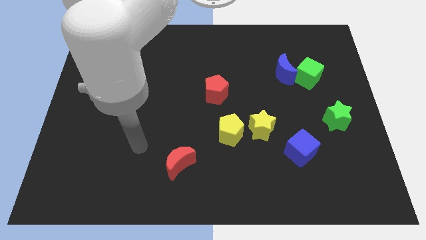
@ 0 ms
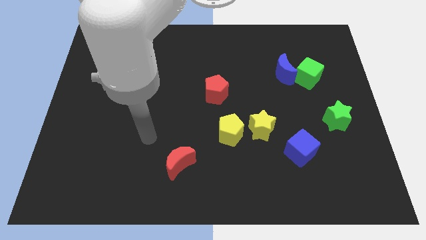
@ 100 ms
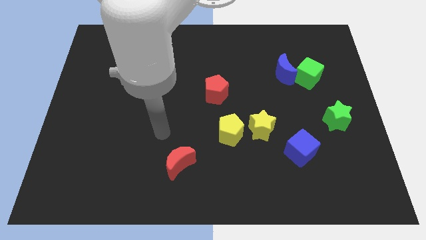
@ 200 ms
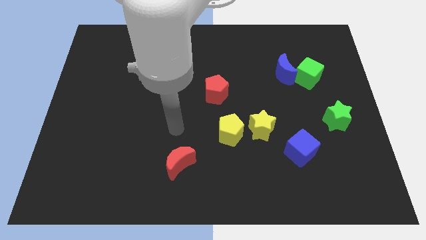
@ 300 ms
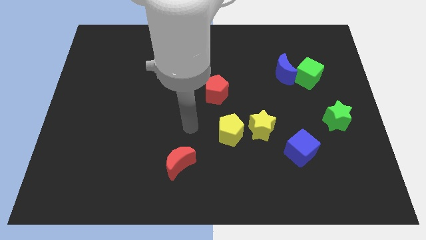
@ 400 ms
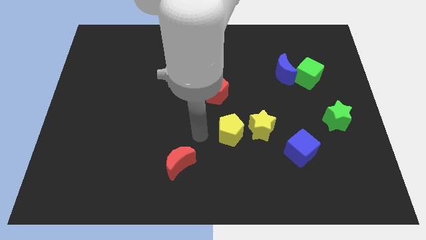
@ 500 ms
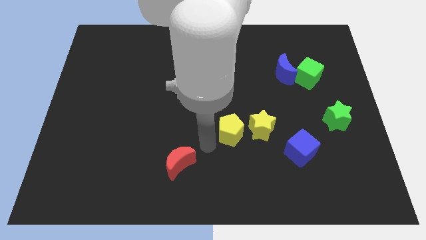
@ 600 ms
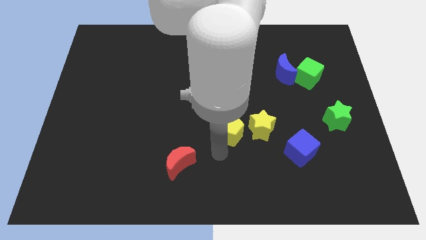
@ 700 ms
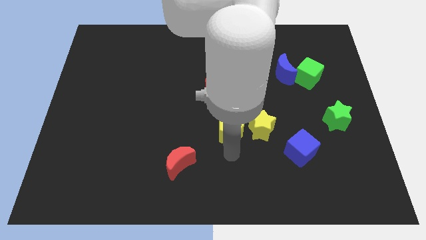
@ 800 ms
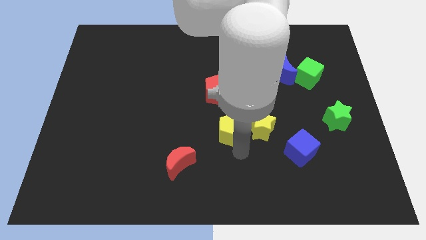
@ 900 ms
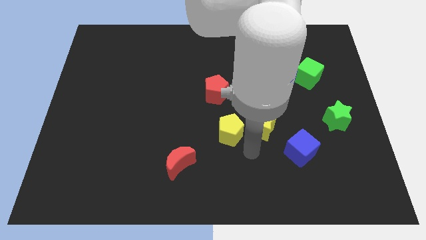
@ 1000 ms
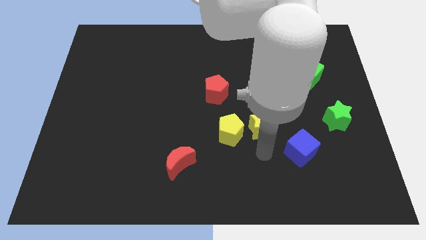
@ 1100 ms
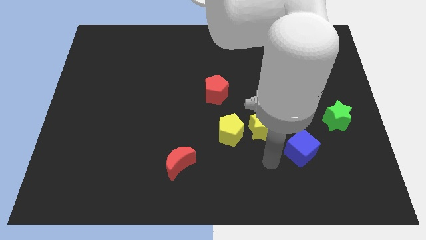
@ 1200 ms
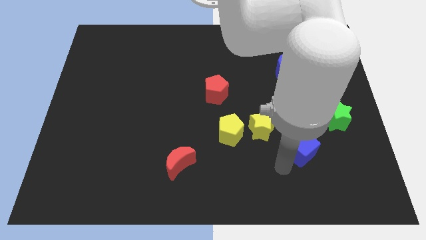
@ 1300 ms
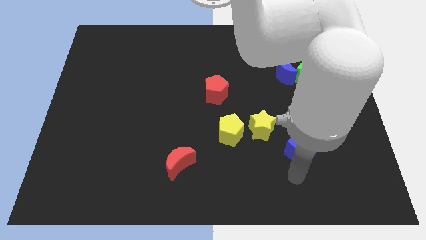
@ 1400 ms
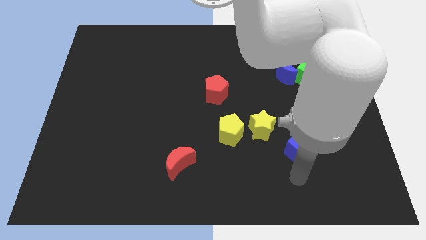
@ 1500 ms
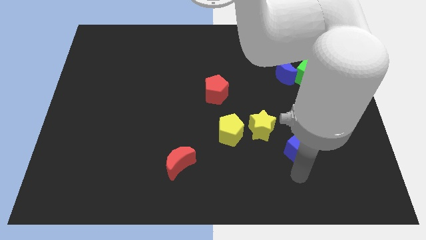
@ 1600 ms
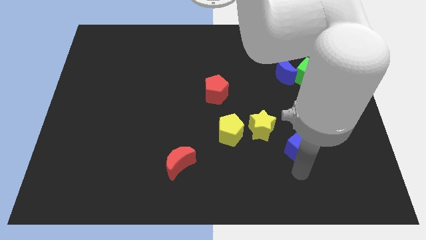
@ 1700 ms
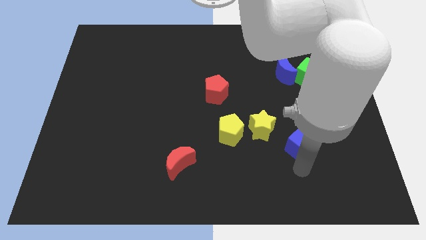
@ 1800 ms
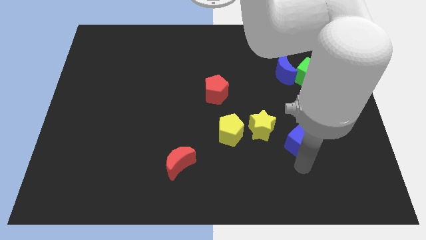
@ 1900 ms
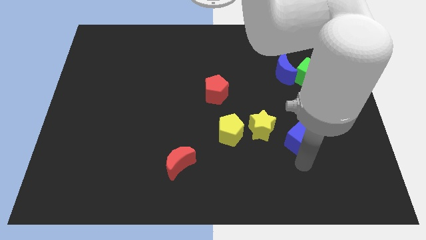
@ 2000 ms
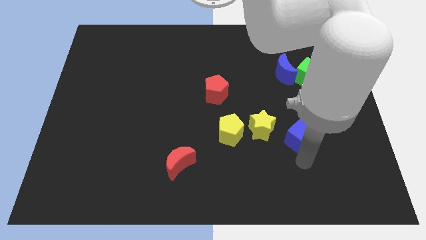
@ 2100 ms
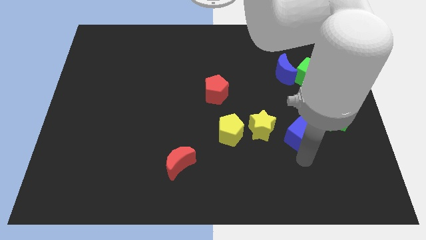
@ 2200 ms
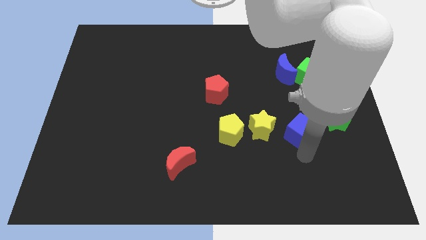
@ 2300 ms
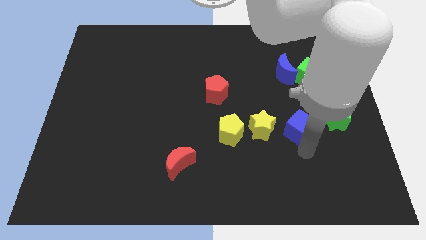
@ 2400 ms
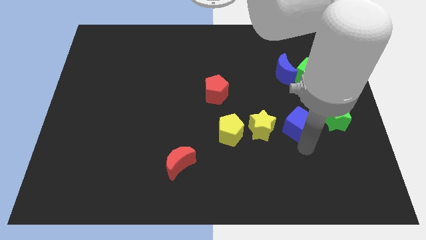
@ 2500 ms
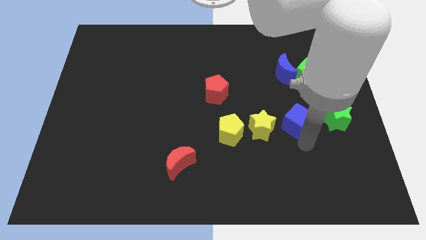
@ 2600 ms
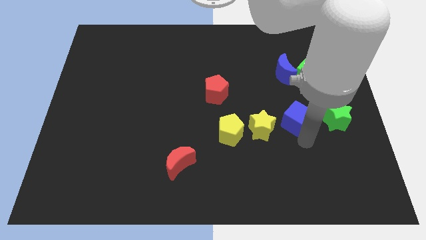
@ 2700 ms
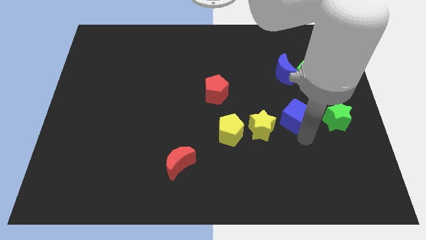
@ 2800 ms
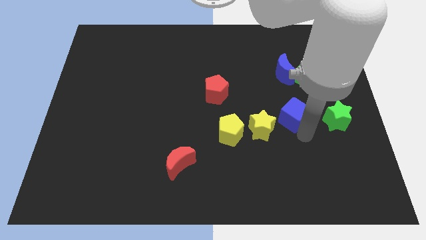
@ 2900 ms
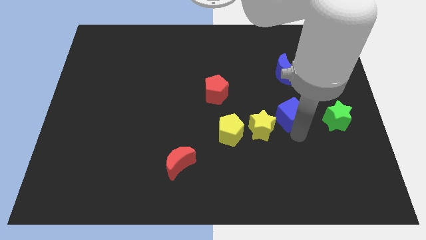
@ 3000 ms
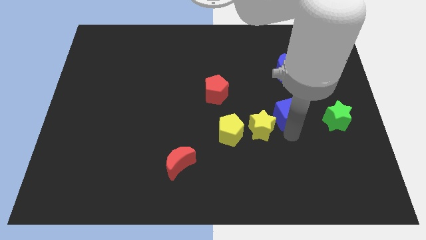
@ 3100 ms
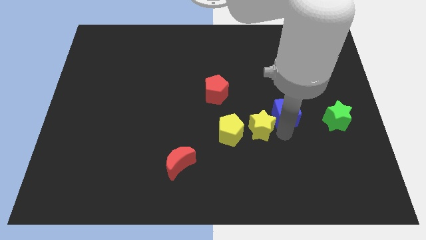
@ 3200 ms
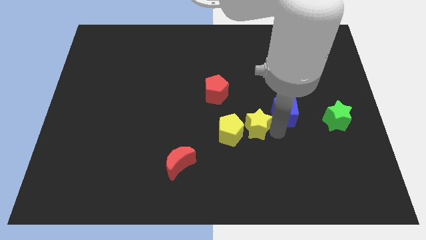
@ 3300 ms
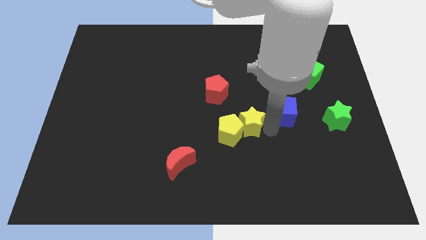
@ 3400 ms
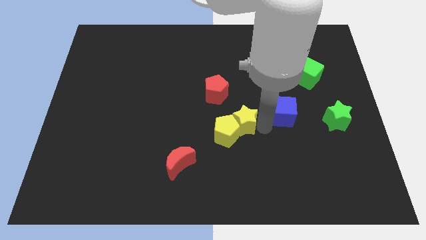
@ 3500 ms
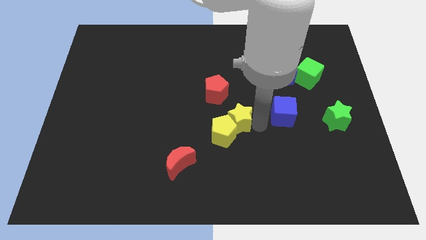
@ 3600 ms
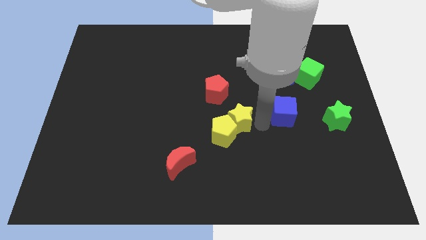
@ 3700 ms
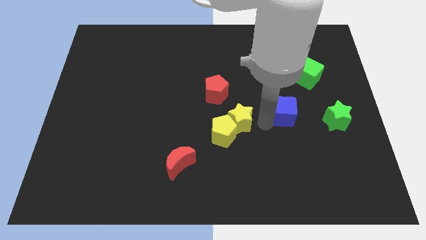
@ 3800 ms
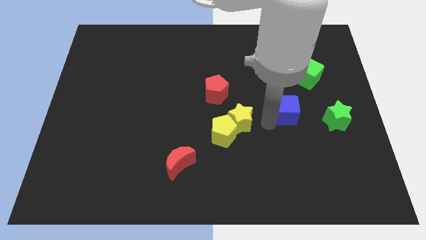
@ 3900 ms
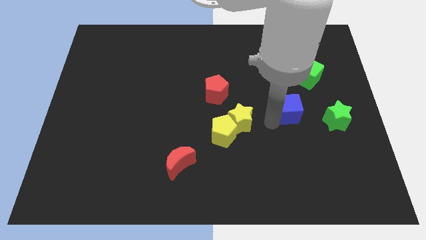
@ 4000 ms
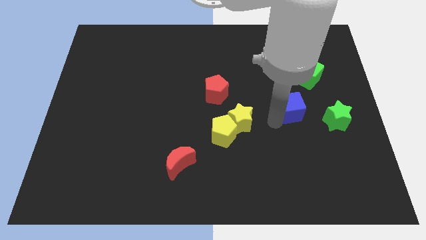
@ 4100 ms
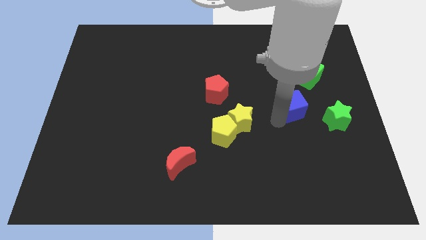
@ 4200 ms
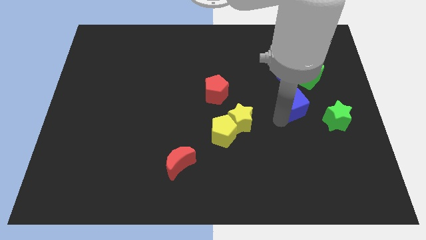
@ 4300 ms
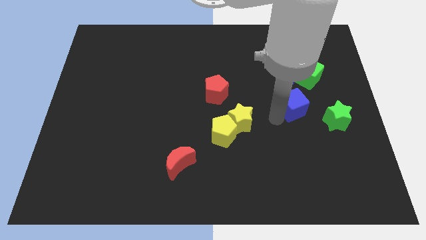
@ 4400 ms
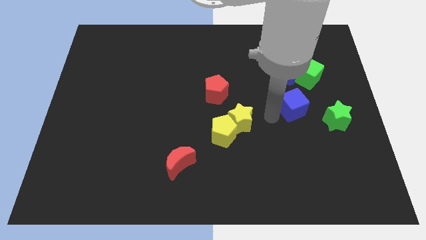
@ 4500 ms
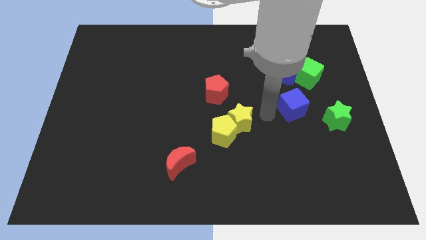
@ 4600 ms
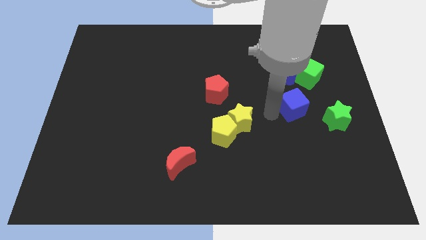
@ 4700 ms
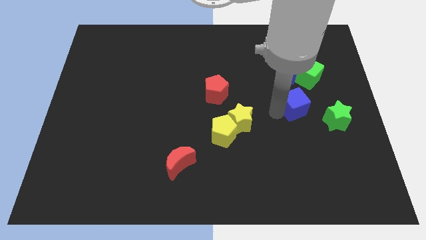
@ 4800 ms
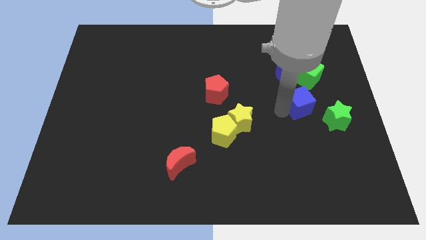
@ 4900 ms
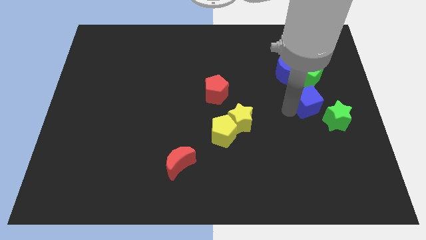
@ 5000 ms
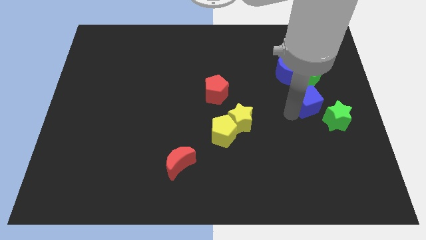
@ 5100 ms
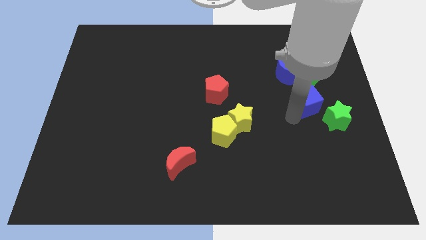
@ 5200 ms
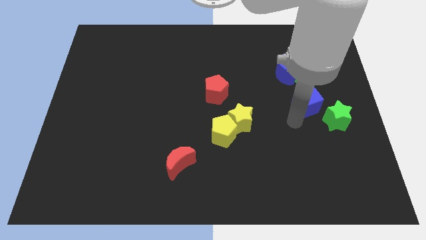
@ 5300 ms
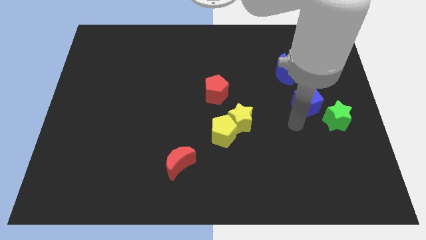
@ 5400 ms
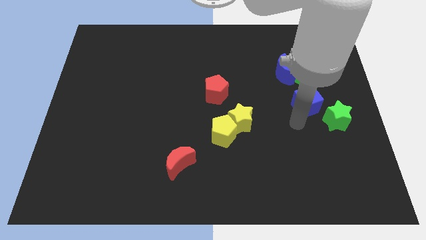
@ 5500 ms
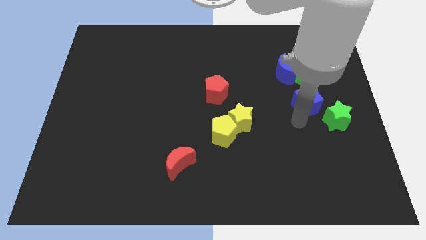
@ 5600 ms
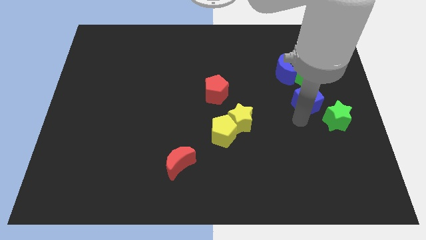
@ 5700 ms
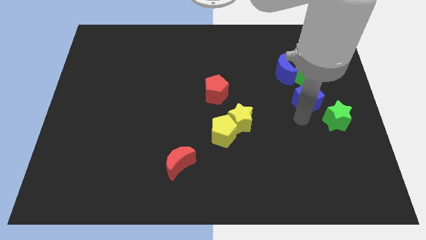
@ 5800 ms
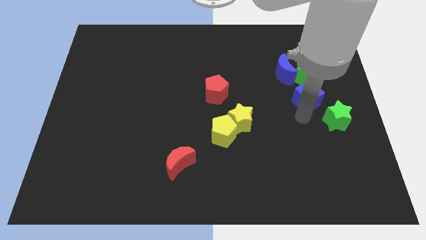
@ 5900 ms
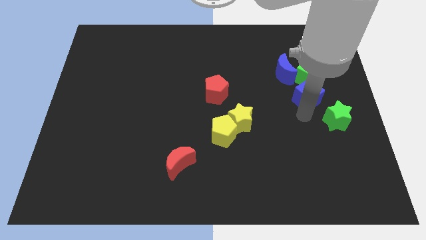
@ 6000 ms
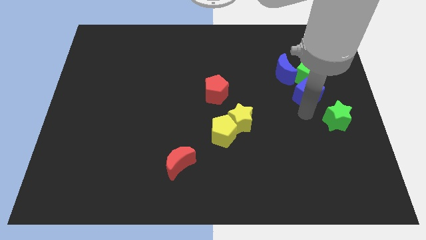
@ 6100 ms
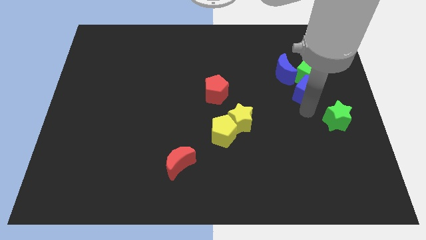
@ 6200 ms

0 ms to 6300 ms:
put the blue cube to the green cube

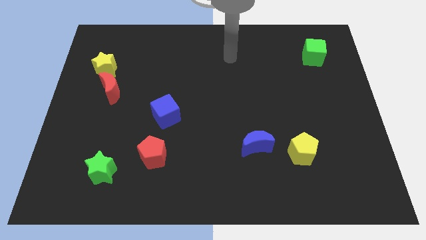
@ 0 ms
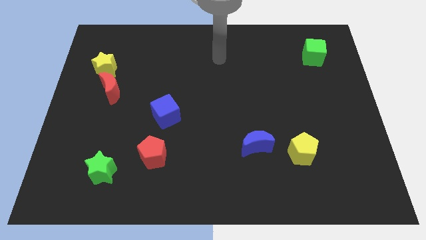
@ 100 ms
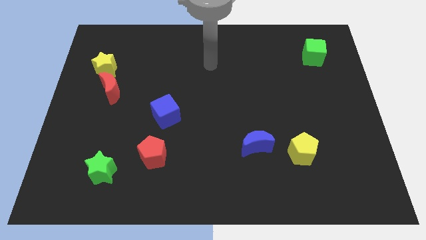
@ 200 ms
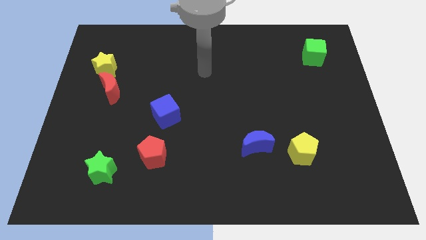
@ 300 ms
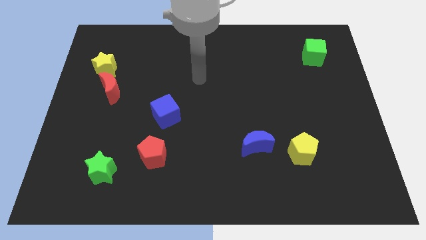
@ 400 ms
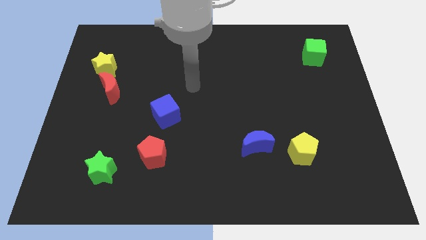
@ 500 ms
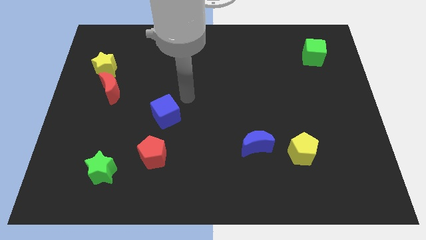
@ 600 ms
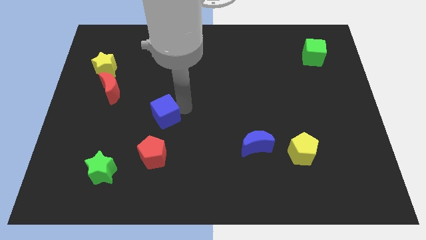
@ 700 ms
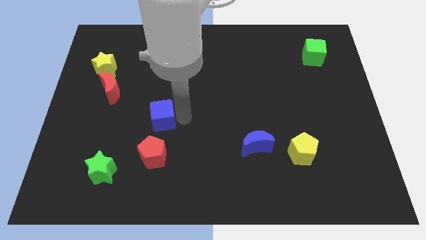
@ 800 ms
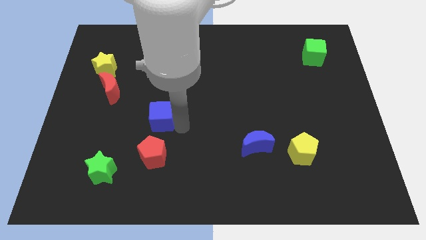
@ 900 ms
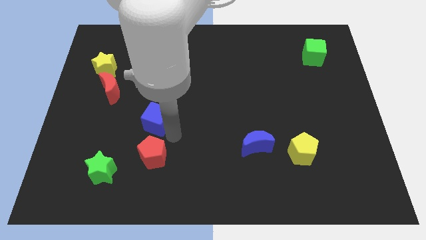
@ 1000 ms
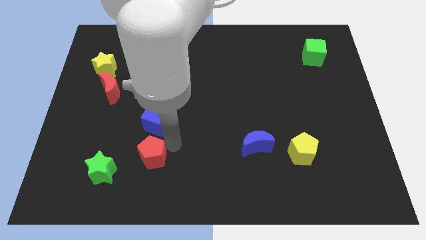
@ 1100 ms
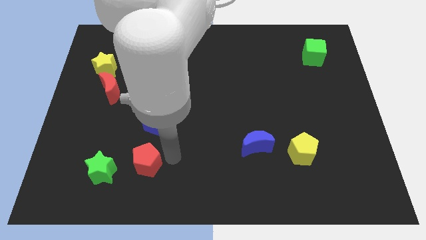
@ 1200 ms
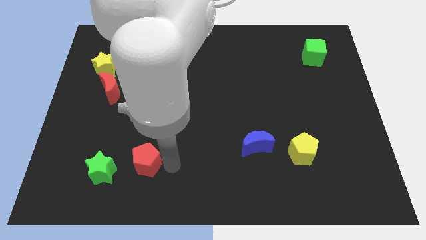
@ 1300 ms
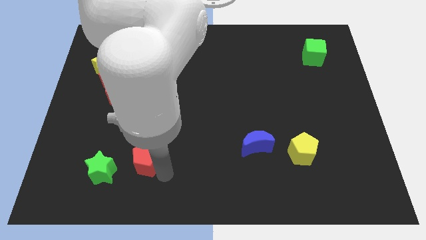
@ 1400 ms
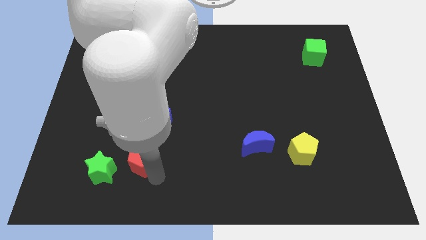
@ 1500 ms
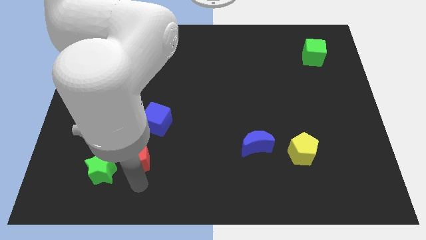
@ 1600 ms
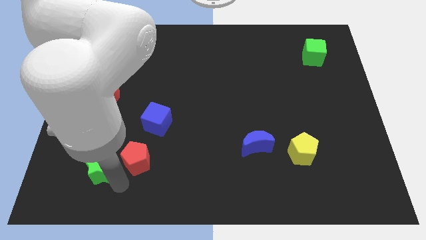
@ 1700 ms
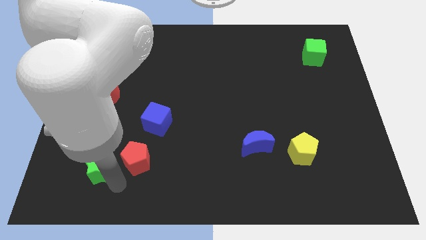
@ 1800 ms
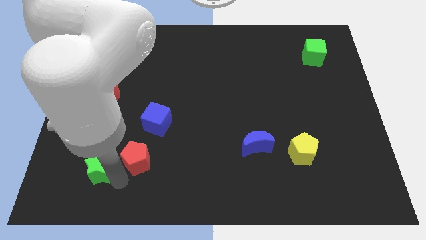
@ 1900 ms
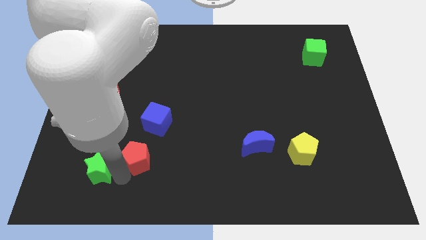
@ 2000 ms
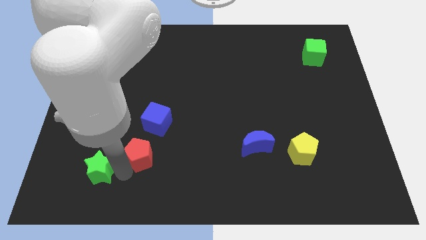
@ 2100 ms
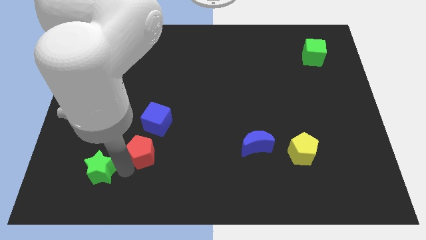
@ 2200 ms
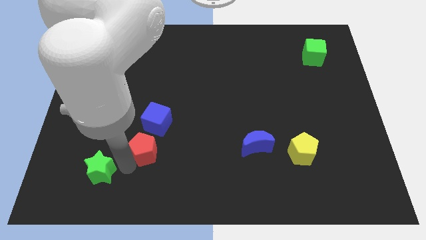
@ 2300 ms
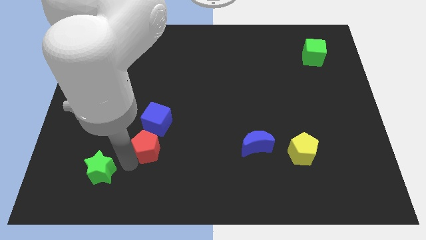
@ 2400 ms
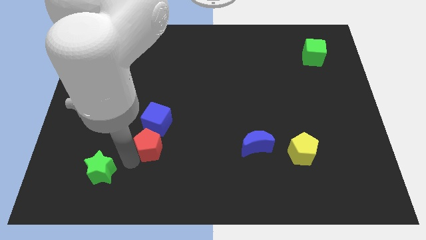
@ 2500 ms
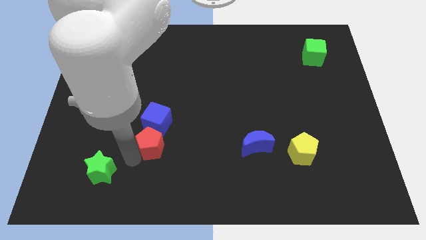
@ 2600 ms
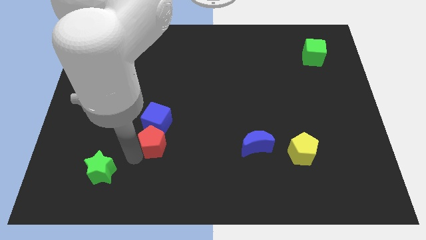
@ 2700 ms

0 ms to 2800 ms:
slide the red pentagon towards the blue cube
